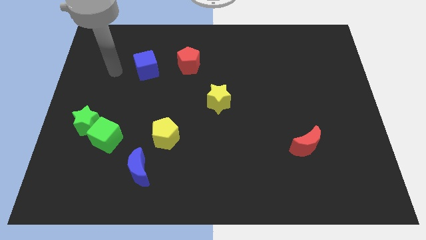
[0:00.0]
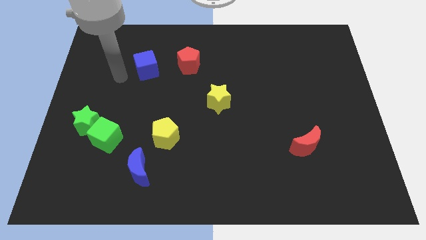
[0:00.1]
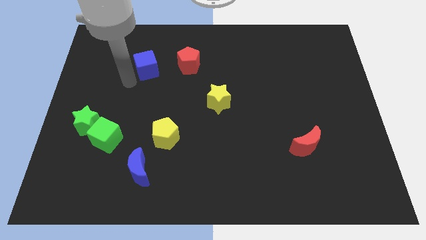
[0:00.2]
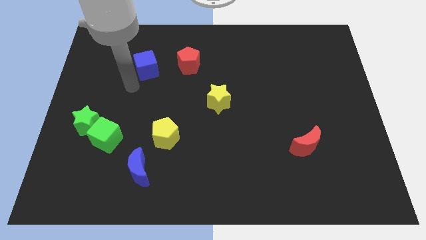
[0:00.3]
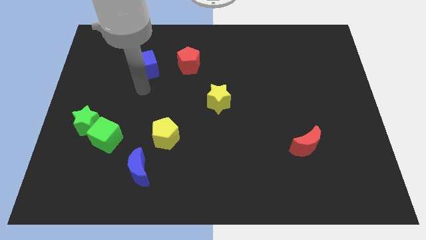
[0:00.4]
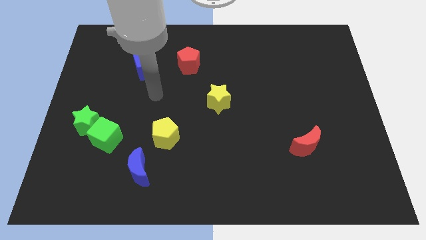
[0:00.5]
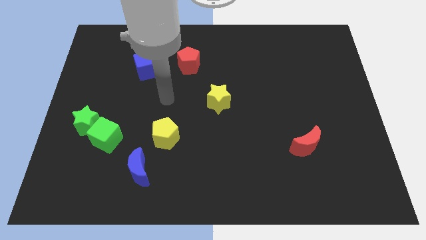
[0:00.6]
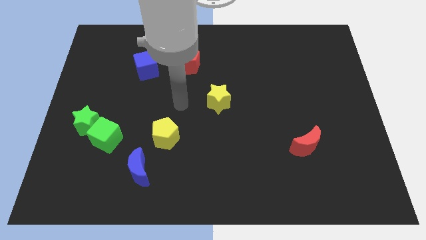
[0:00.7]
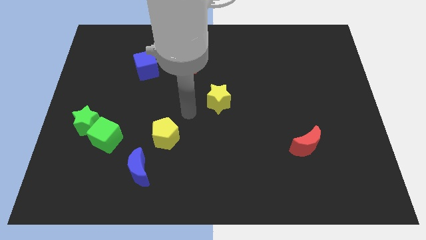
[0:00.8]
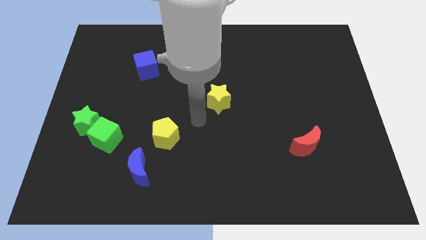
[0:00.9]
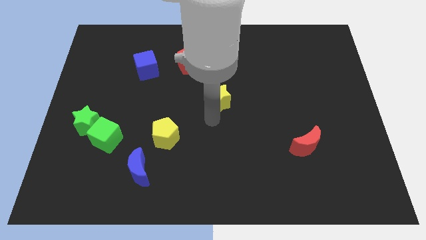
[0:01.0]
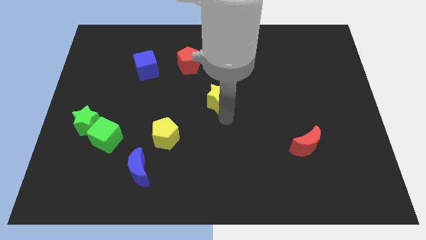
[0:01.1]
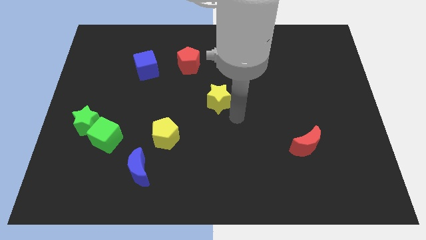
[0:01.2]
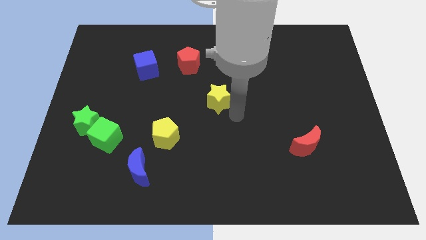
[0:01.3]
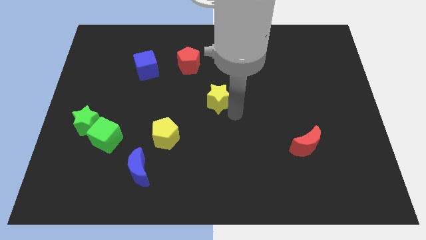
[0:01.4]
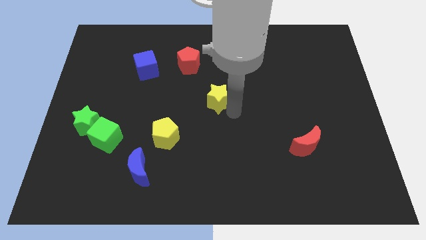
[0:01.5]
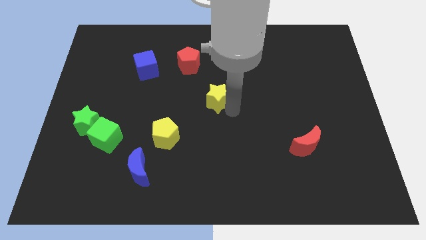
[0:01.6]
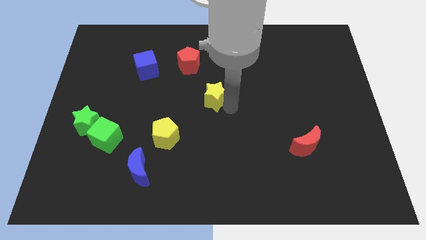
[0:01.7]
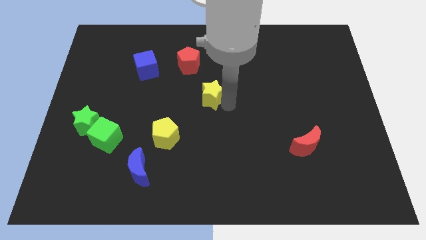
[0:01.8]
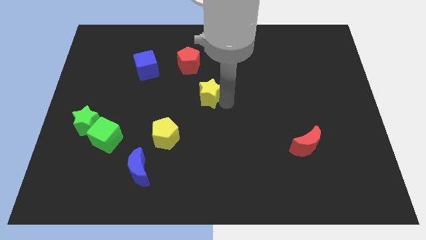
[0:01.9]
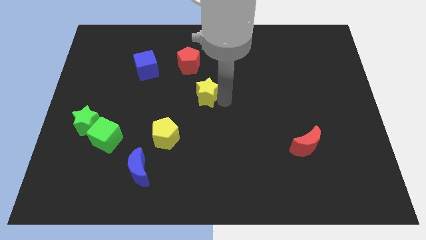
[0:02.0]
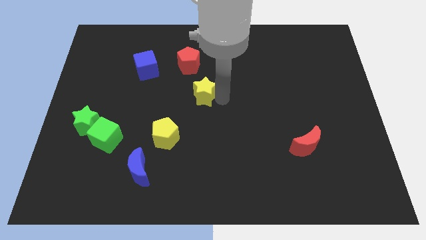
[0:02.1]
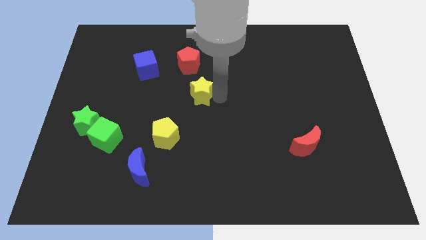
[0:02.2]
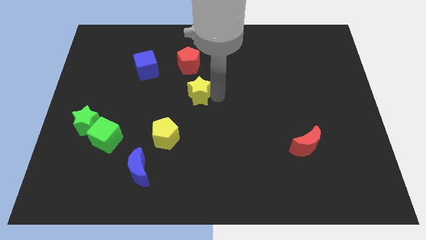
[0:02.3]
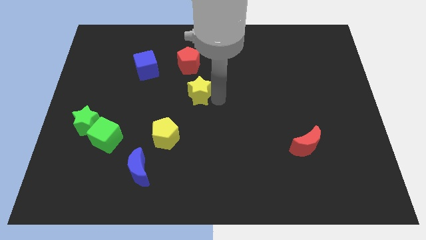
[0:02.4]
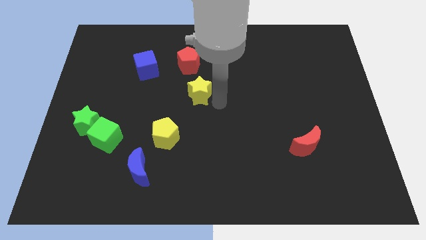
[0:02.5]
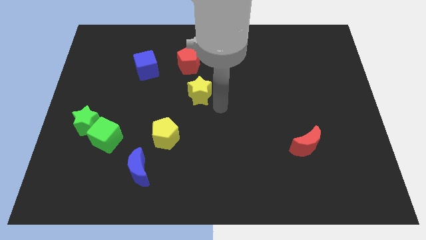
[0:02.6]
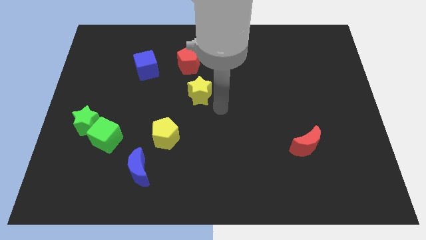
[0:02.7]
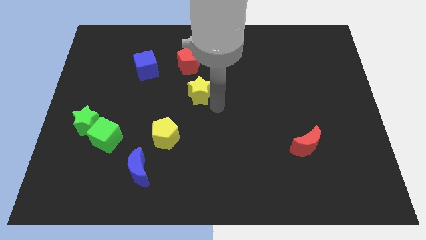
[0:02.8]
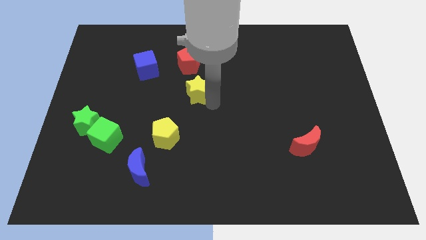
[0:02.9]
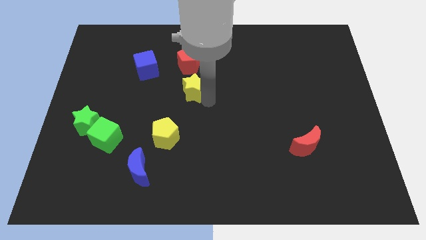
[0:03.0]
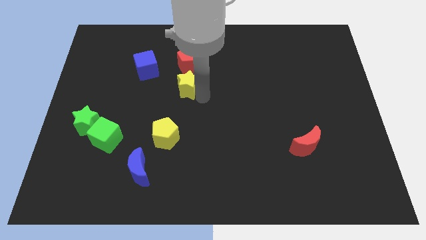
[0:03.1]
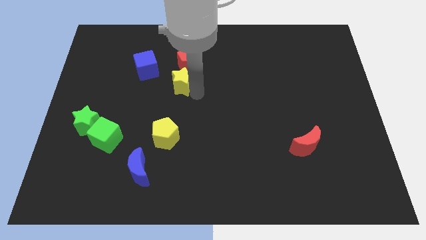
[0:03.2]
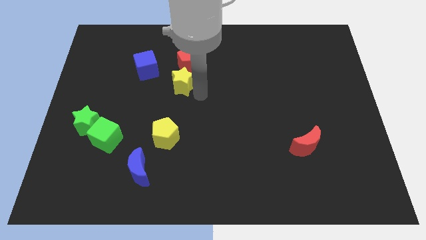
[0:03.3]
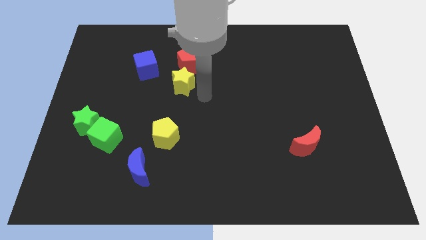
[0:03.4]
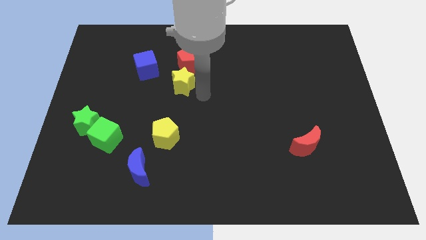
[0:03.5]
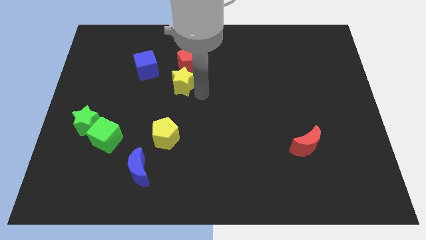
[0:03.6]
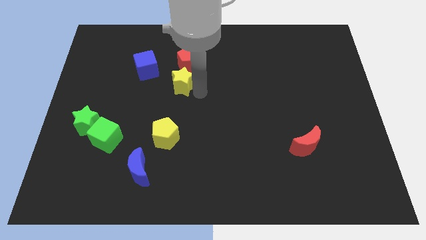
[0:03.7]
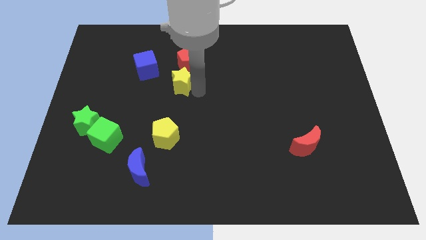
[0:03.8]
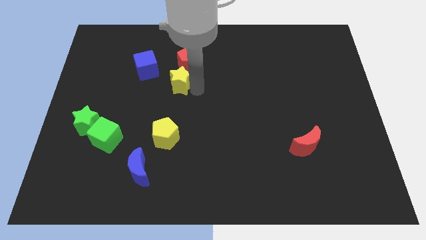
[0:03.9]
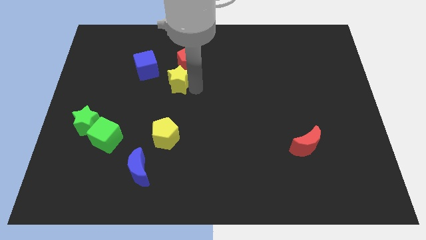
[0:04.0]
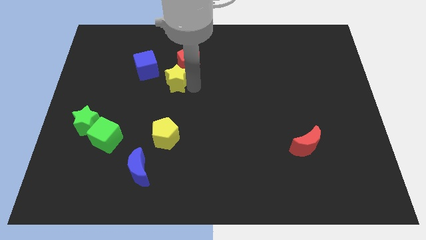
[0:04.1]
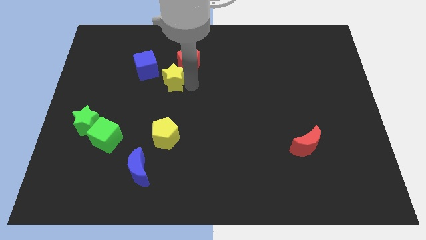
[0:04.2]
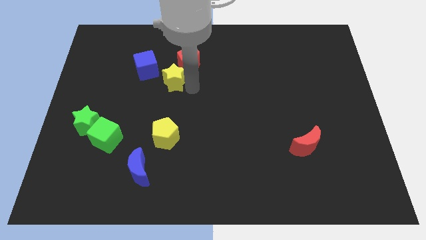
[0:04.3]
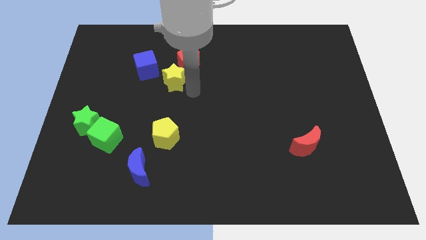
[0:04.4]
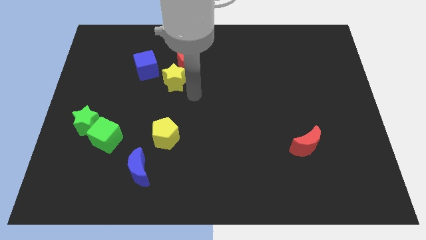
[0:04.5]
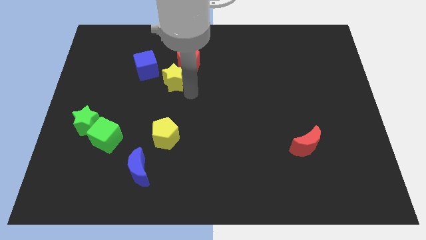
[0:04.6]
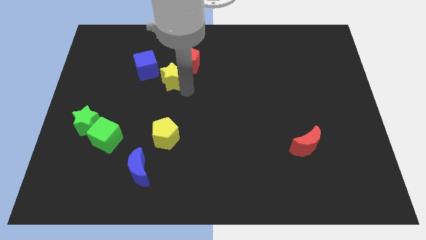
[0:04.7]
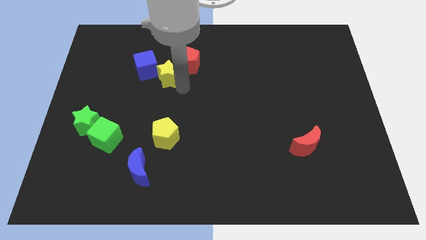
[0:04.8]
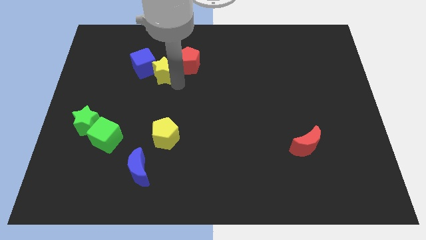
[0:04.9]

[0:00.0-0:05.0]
move the yellow star close to the blue cube

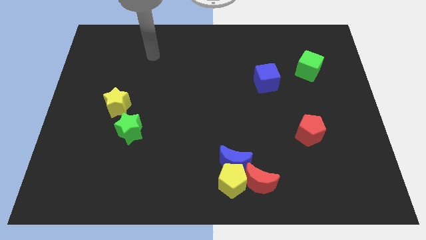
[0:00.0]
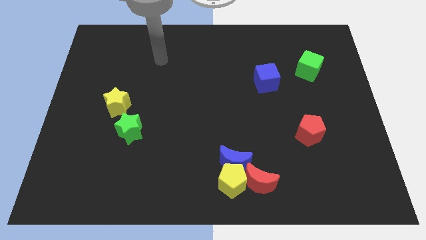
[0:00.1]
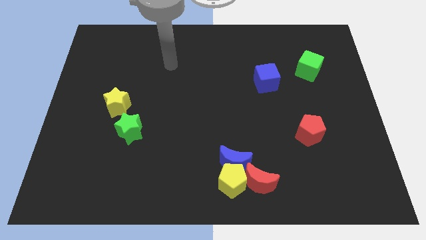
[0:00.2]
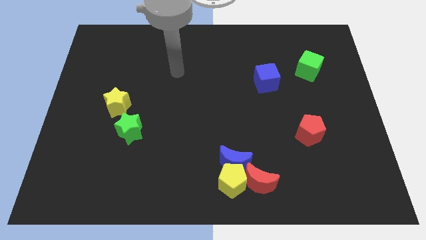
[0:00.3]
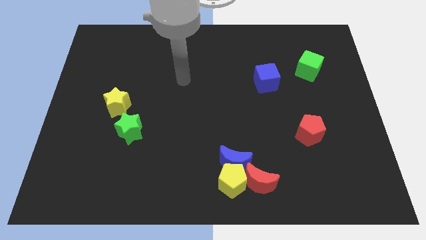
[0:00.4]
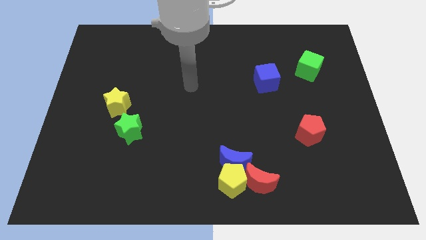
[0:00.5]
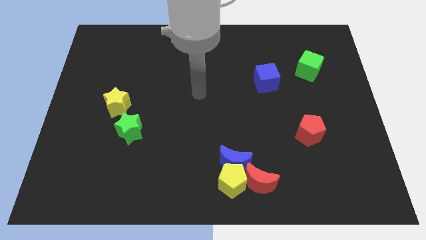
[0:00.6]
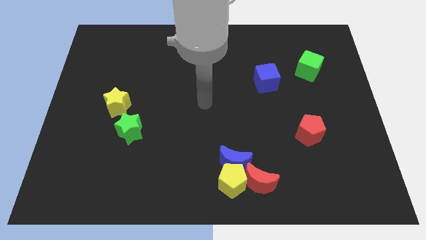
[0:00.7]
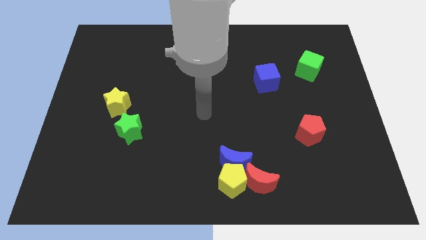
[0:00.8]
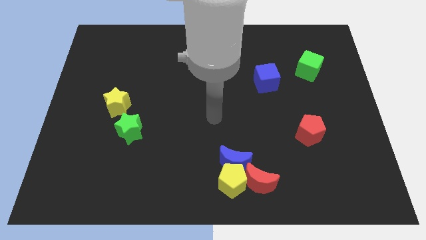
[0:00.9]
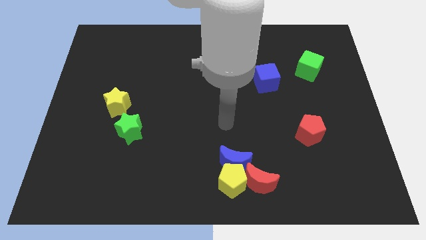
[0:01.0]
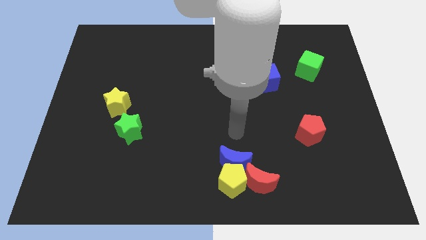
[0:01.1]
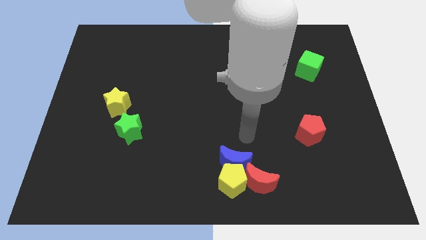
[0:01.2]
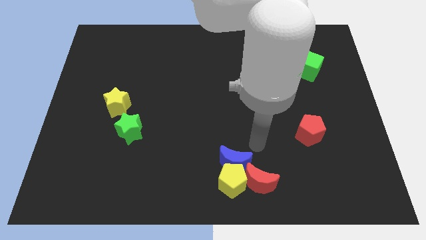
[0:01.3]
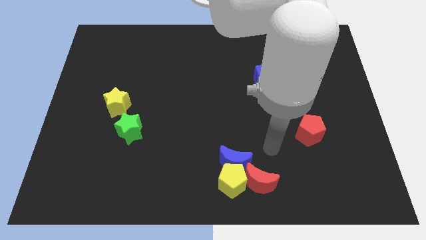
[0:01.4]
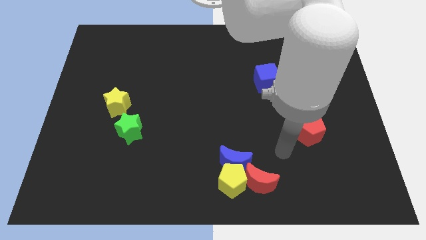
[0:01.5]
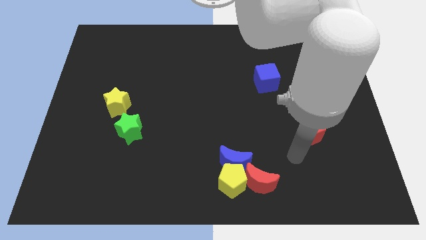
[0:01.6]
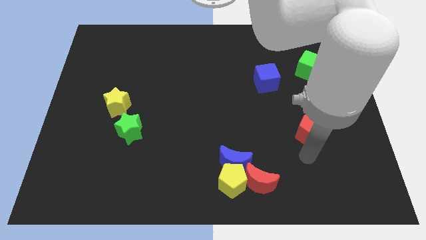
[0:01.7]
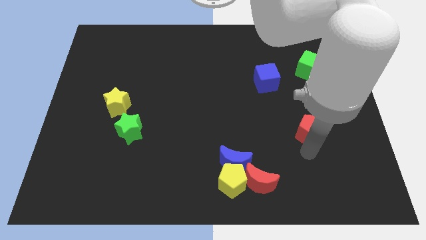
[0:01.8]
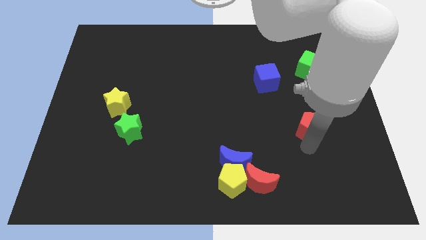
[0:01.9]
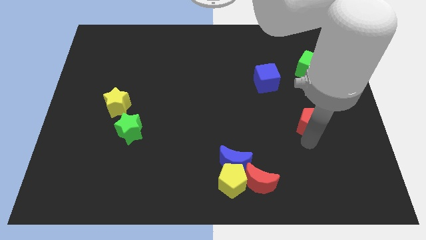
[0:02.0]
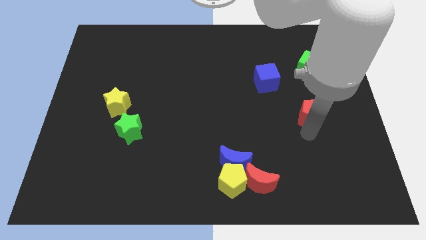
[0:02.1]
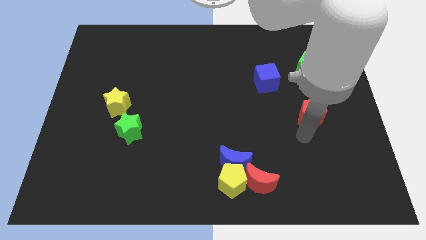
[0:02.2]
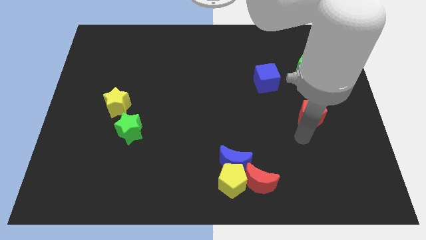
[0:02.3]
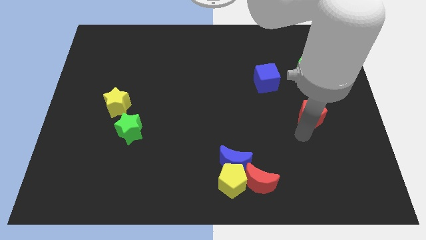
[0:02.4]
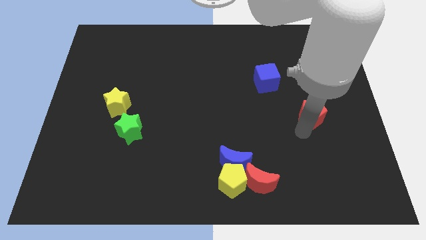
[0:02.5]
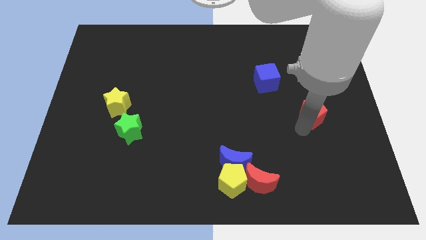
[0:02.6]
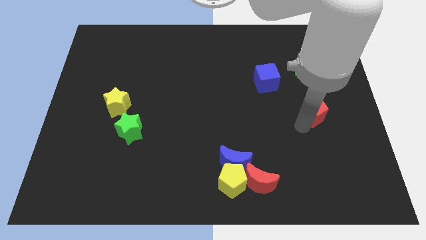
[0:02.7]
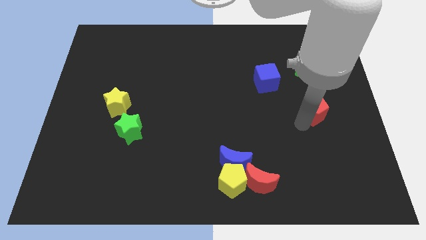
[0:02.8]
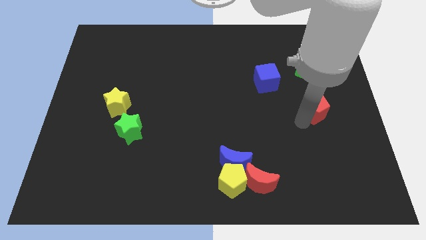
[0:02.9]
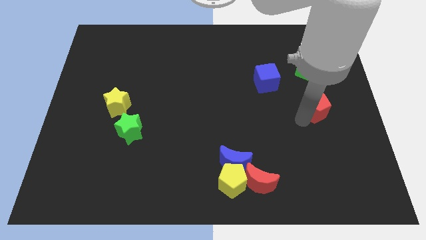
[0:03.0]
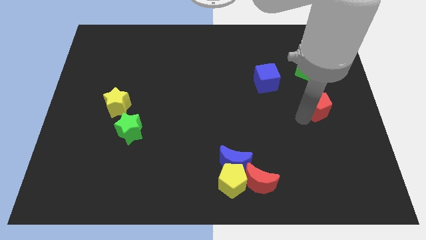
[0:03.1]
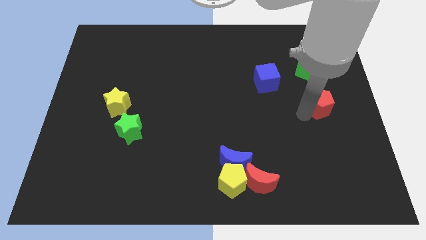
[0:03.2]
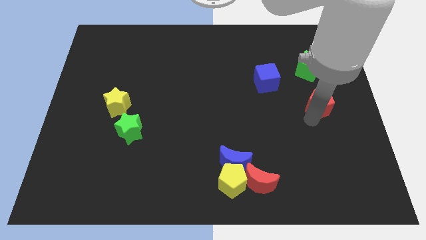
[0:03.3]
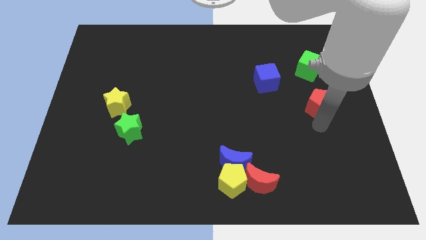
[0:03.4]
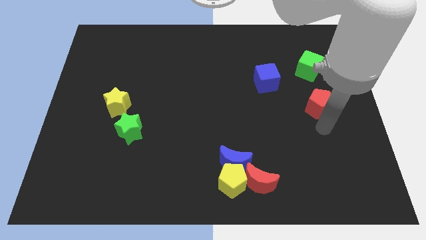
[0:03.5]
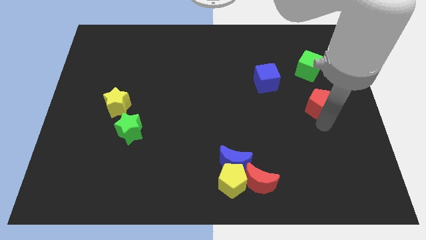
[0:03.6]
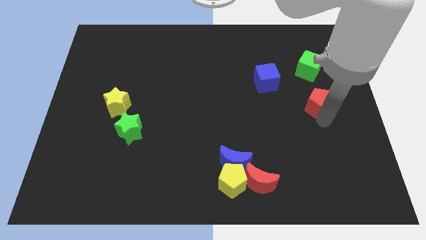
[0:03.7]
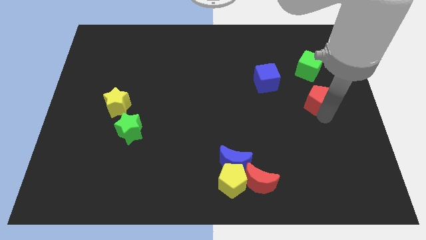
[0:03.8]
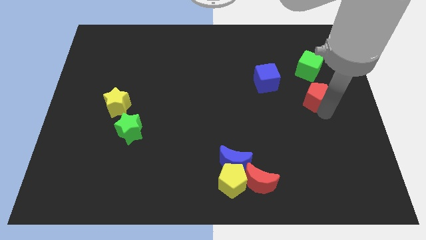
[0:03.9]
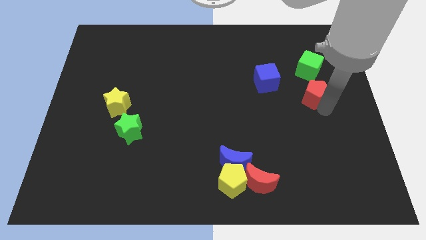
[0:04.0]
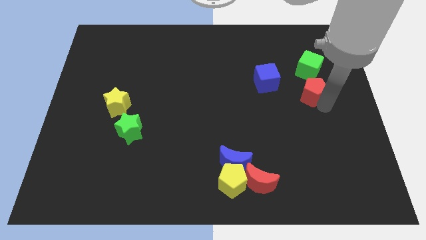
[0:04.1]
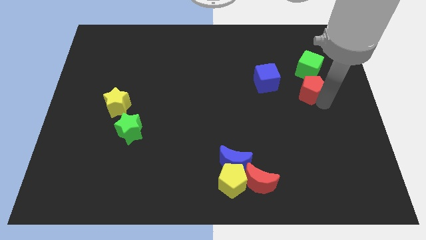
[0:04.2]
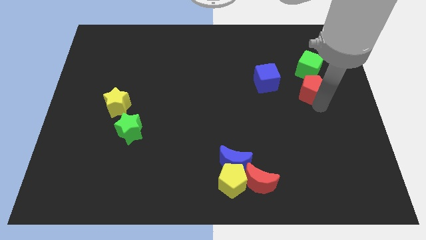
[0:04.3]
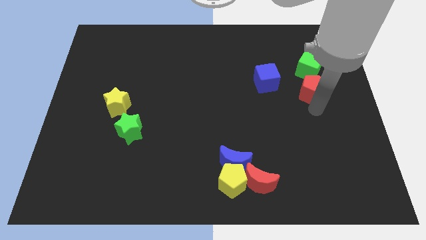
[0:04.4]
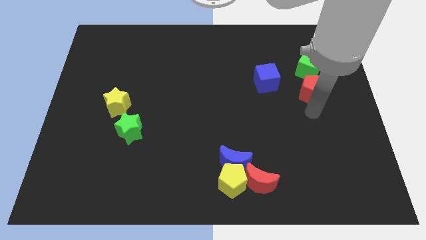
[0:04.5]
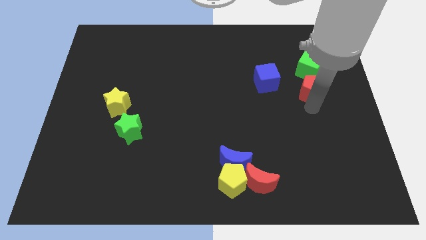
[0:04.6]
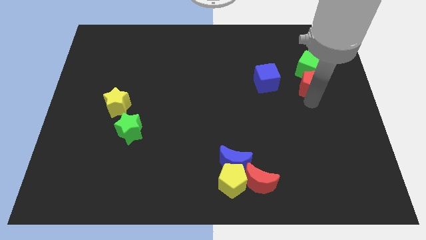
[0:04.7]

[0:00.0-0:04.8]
put the red pentagon close to the green cube
